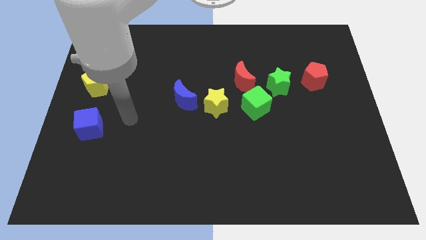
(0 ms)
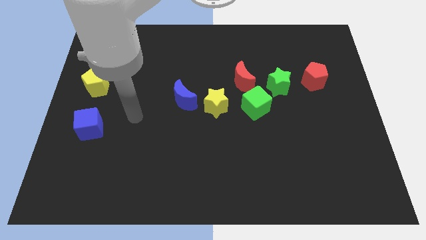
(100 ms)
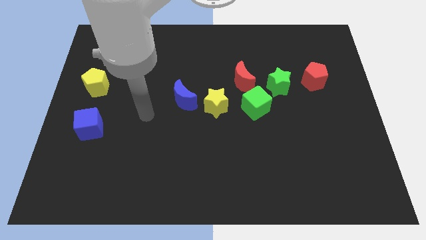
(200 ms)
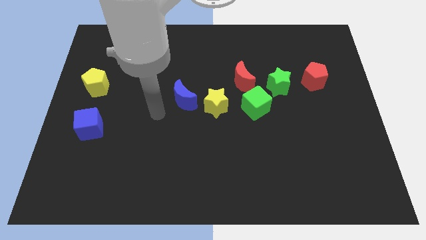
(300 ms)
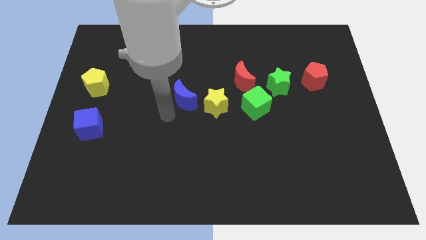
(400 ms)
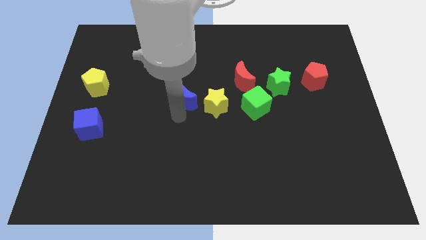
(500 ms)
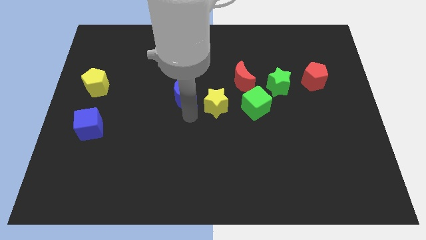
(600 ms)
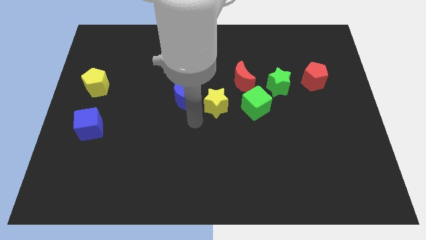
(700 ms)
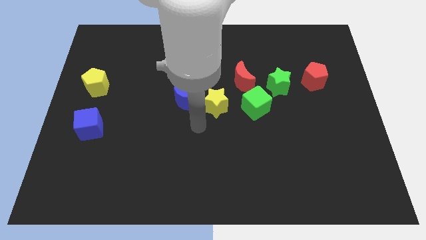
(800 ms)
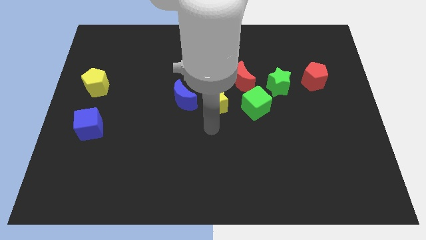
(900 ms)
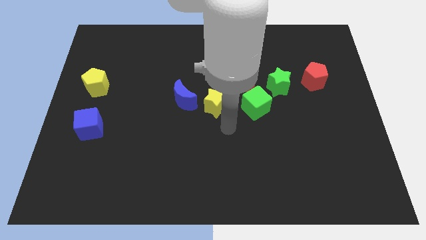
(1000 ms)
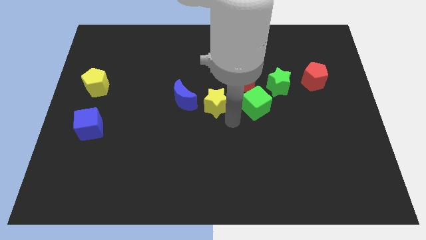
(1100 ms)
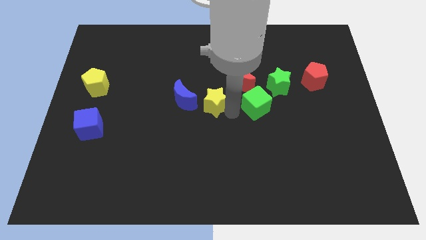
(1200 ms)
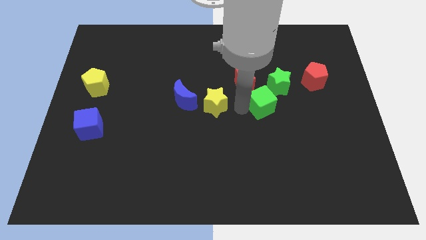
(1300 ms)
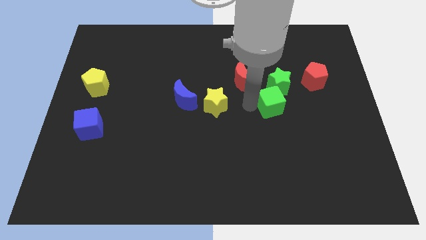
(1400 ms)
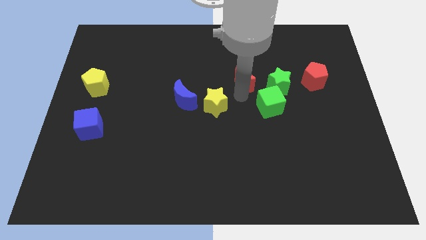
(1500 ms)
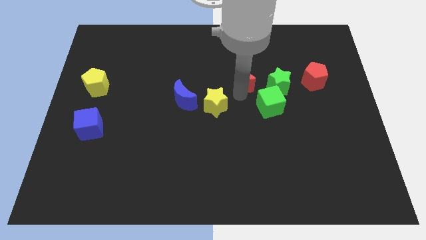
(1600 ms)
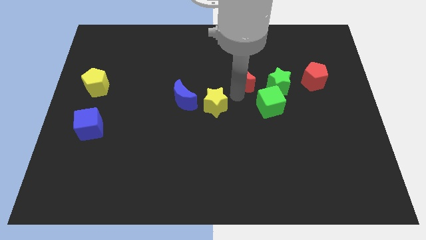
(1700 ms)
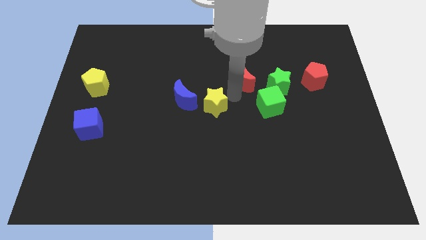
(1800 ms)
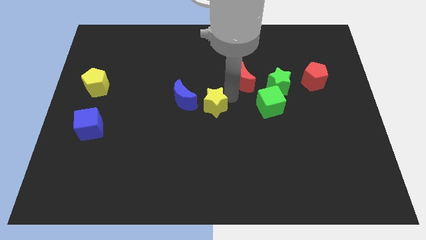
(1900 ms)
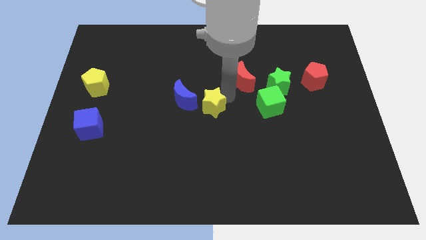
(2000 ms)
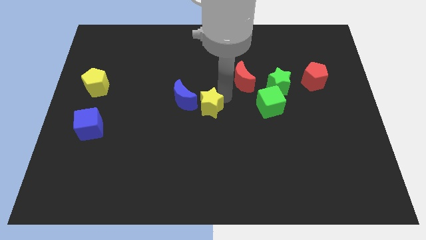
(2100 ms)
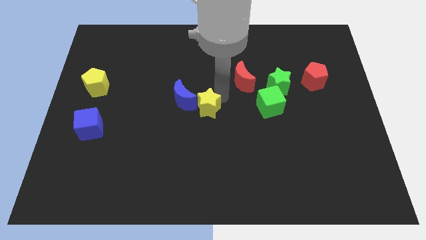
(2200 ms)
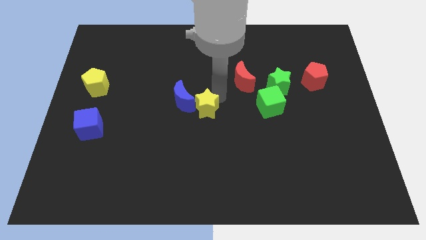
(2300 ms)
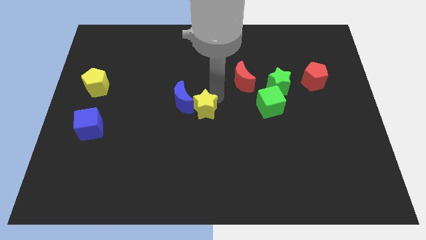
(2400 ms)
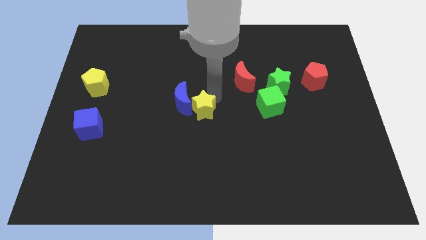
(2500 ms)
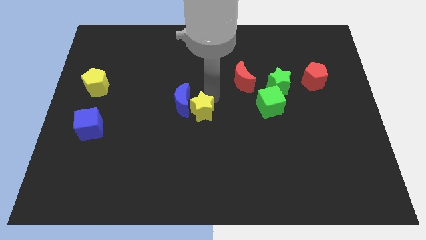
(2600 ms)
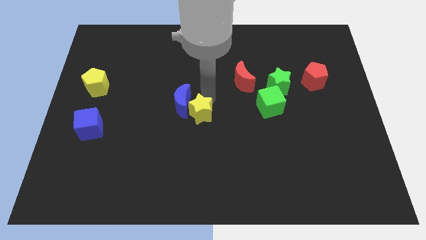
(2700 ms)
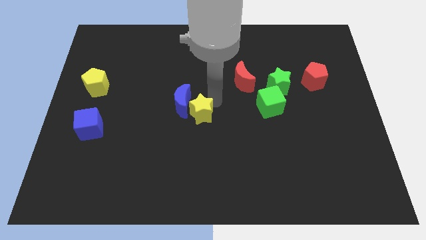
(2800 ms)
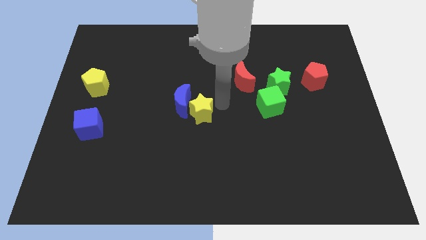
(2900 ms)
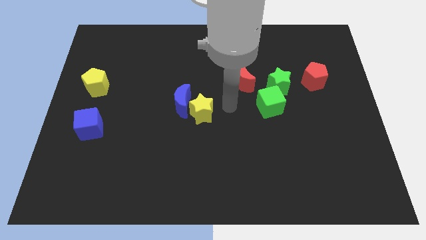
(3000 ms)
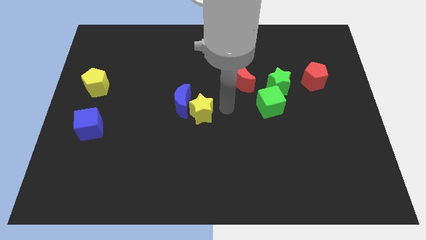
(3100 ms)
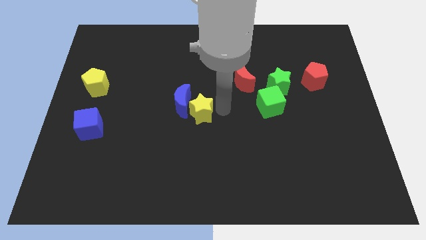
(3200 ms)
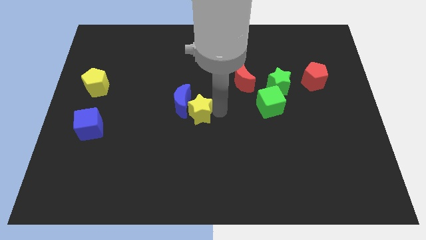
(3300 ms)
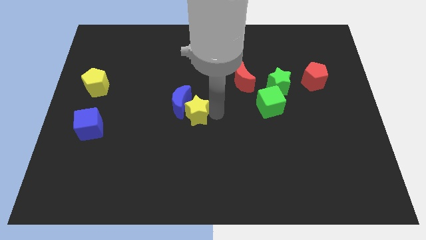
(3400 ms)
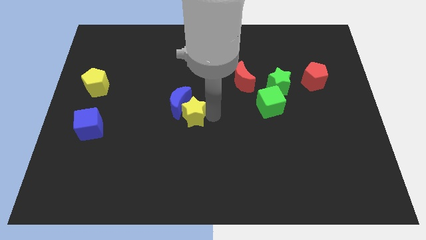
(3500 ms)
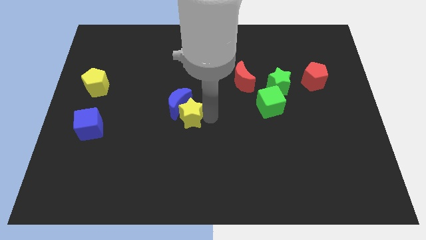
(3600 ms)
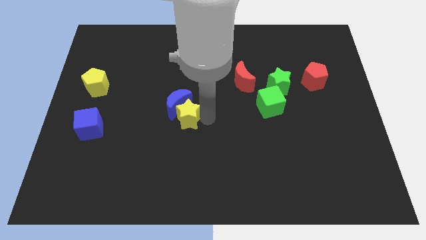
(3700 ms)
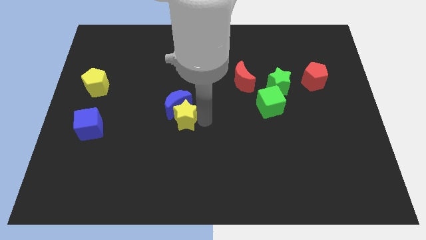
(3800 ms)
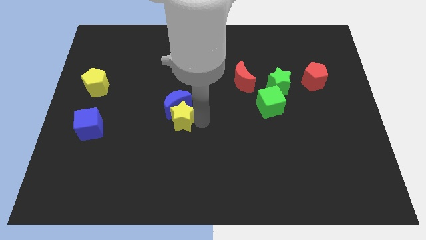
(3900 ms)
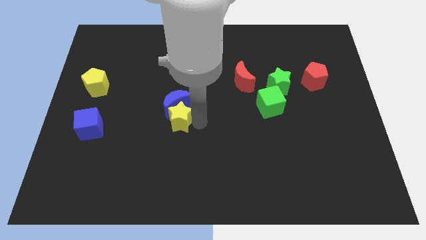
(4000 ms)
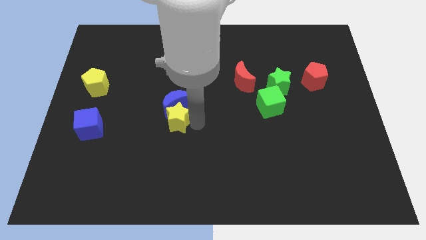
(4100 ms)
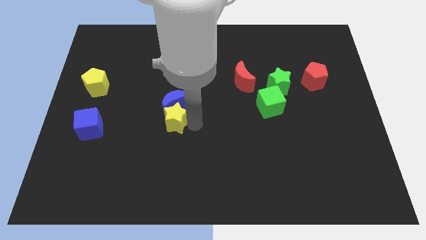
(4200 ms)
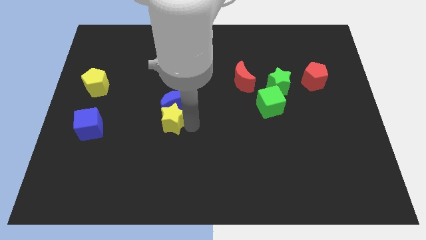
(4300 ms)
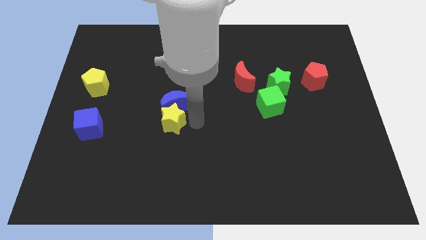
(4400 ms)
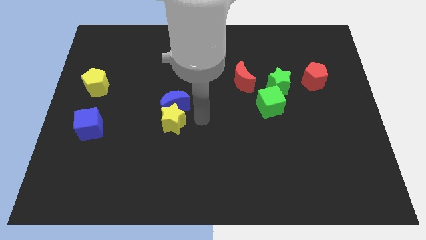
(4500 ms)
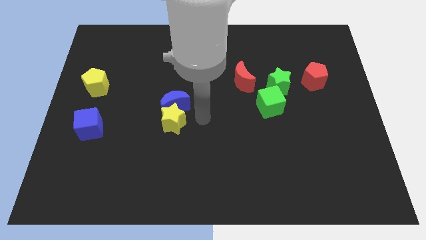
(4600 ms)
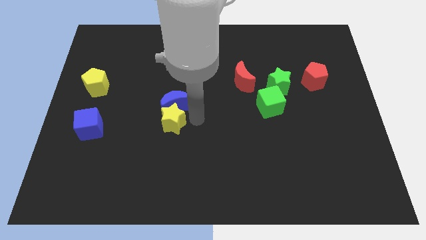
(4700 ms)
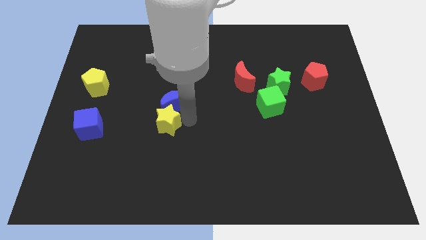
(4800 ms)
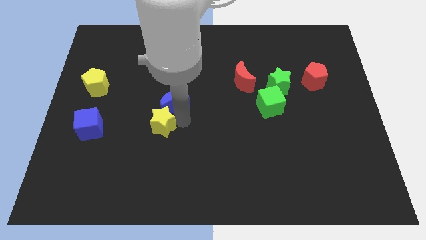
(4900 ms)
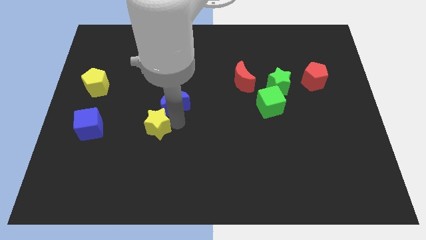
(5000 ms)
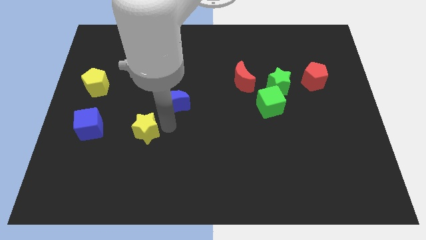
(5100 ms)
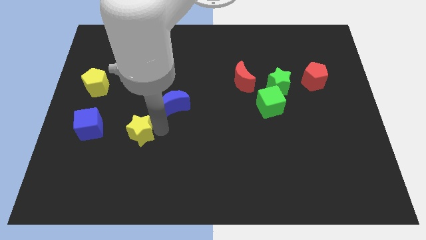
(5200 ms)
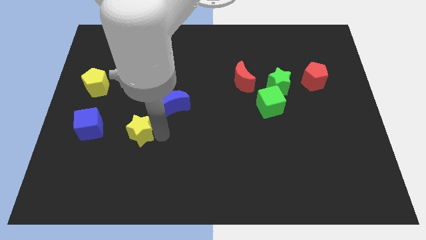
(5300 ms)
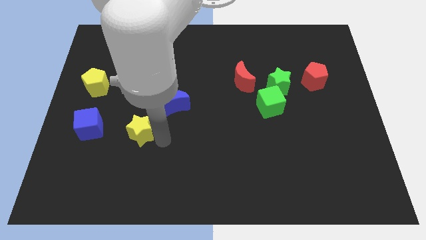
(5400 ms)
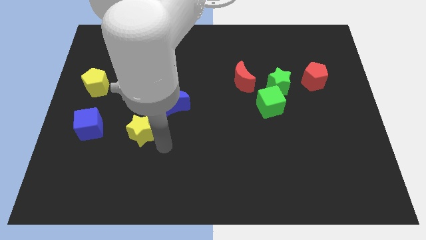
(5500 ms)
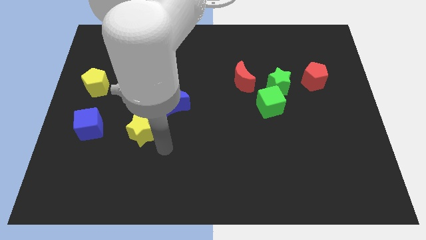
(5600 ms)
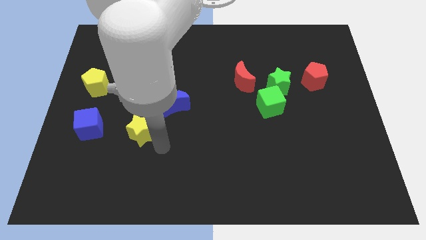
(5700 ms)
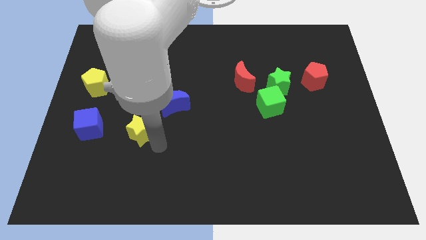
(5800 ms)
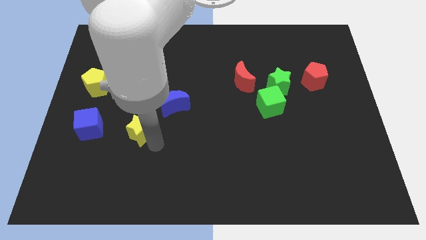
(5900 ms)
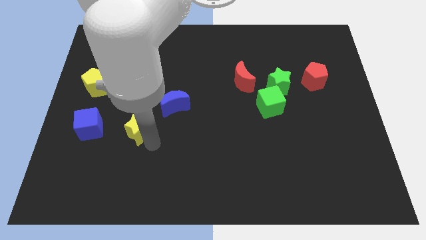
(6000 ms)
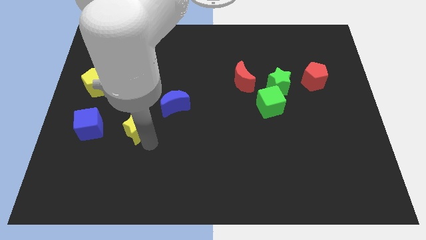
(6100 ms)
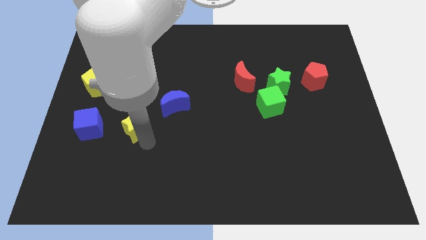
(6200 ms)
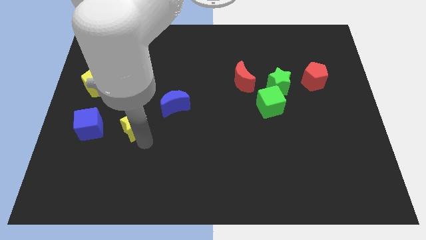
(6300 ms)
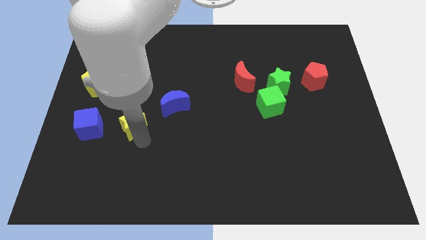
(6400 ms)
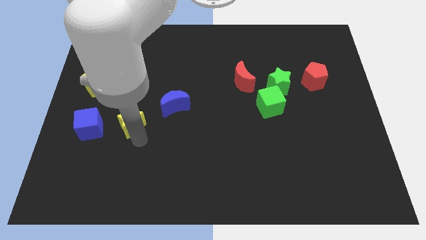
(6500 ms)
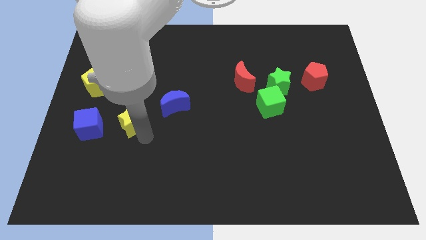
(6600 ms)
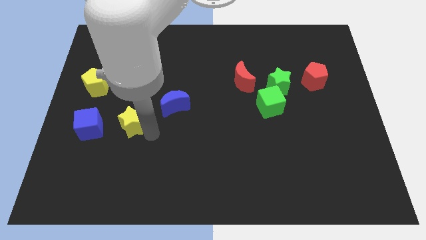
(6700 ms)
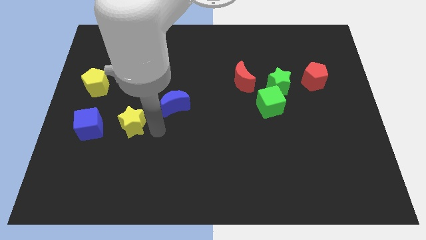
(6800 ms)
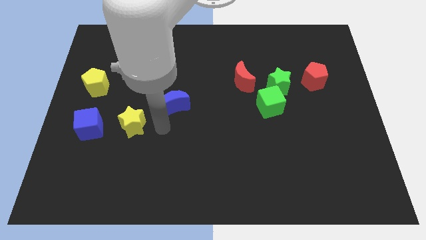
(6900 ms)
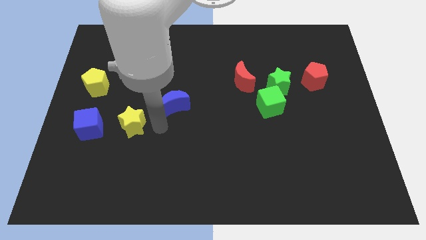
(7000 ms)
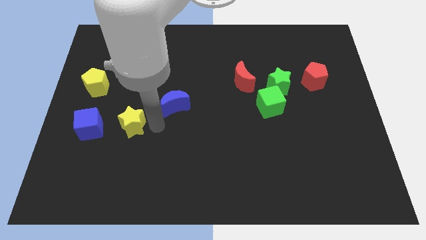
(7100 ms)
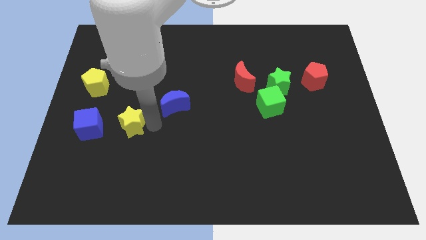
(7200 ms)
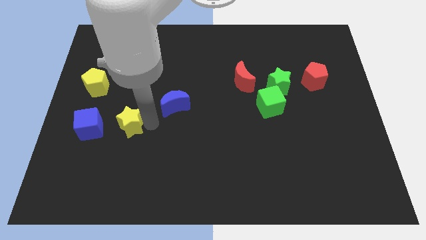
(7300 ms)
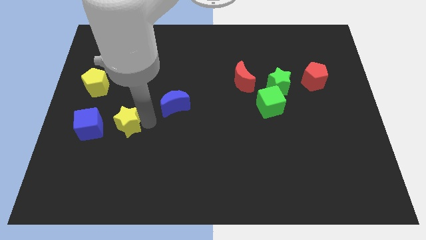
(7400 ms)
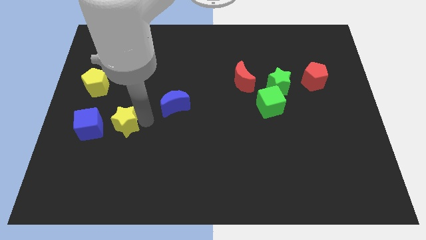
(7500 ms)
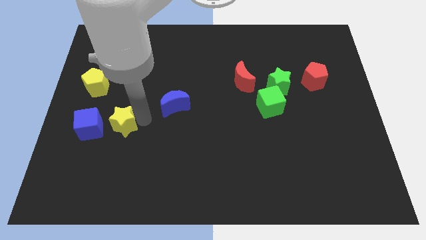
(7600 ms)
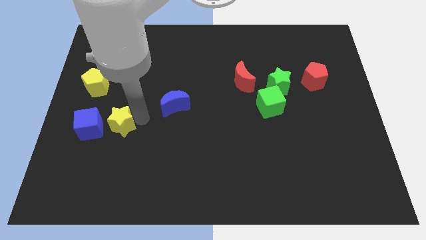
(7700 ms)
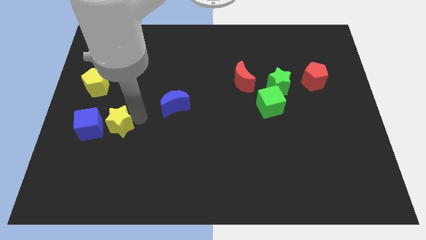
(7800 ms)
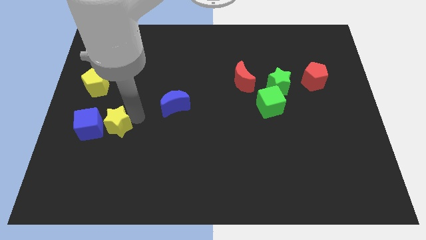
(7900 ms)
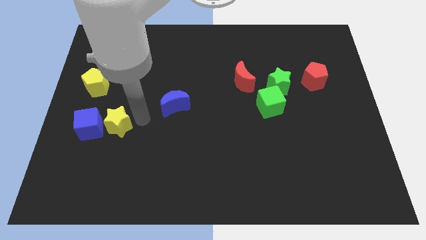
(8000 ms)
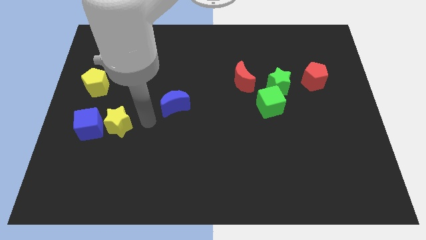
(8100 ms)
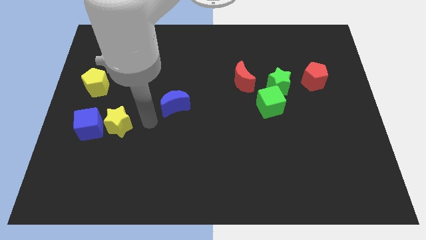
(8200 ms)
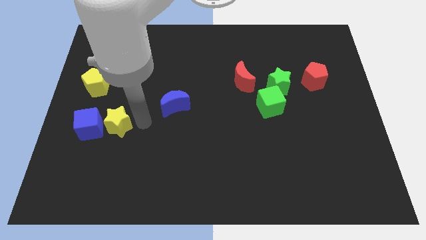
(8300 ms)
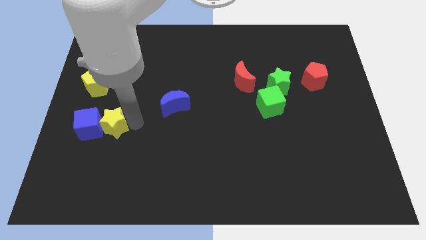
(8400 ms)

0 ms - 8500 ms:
slide the yellow star towards the blue cube
